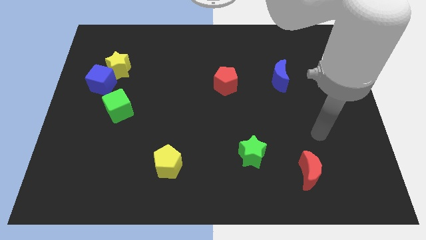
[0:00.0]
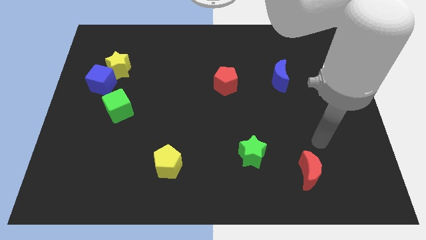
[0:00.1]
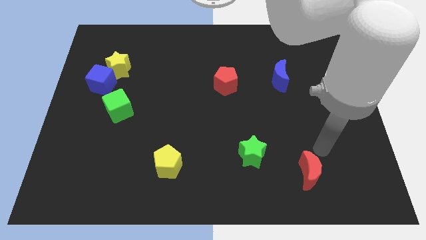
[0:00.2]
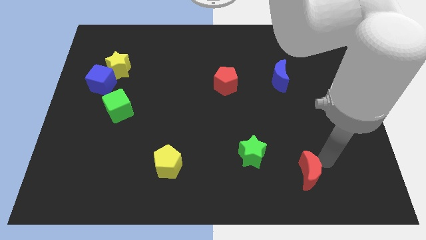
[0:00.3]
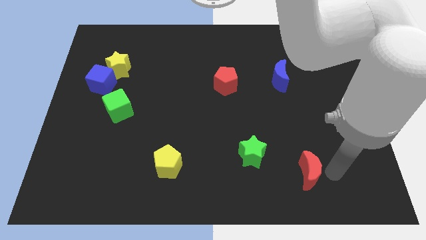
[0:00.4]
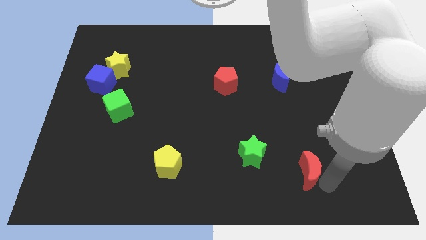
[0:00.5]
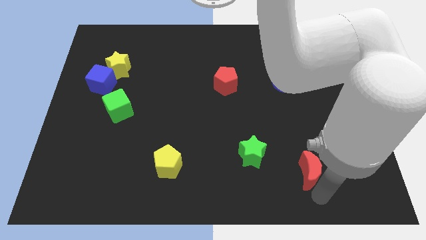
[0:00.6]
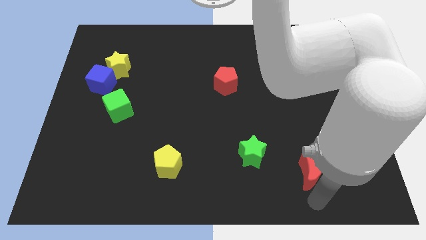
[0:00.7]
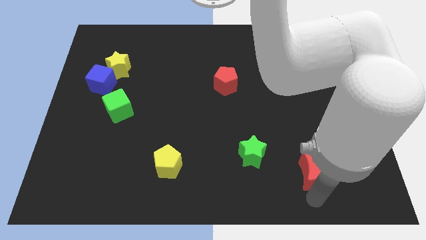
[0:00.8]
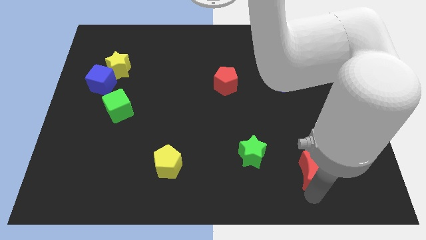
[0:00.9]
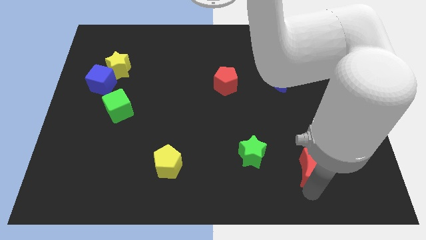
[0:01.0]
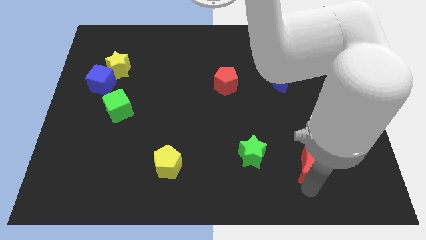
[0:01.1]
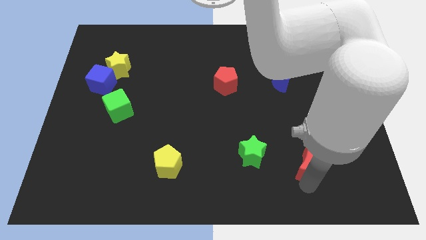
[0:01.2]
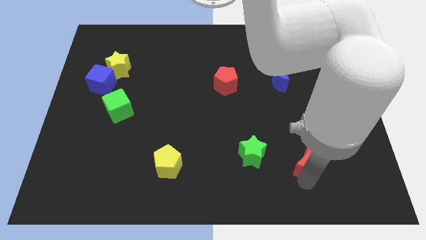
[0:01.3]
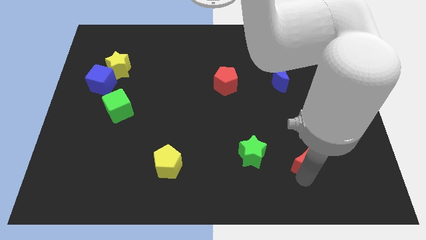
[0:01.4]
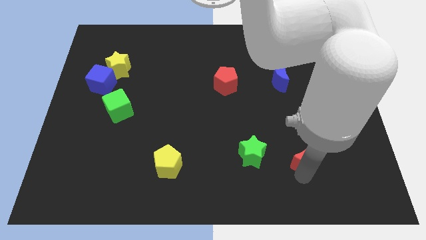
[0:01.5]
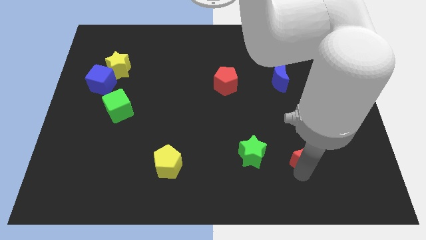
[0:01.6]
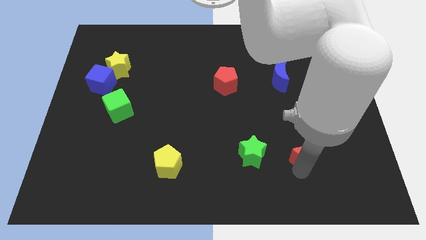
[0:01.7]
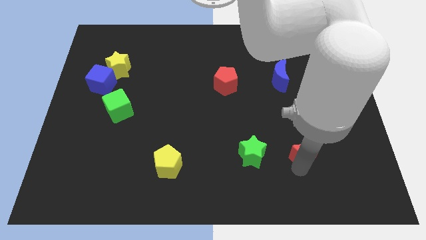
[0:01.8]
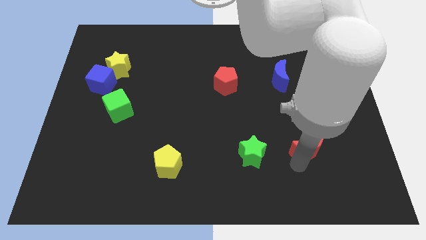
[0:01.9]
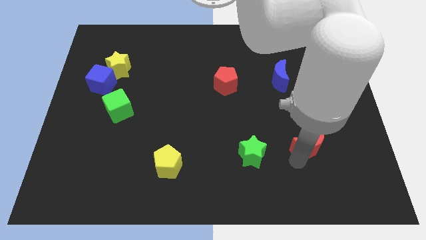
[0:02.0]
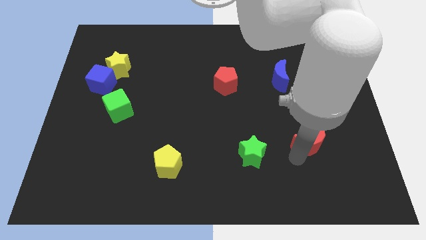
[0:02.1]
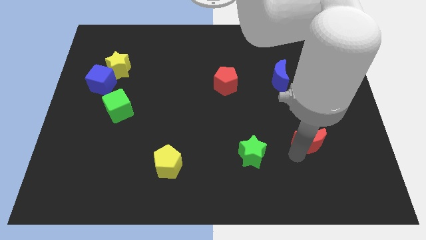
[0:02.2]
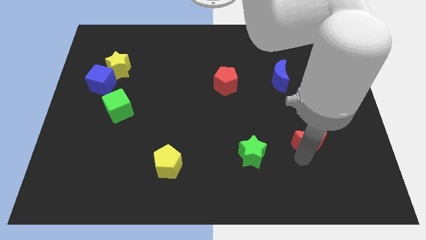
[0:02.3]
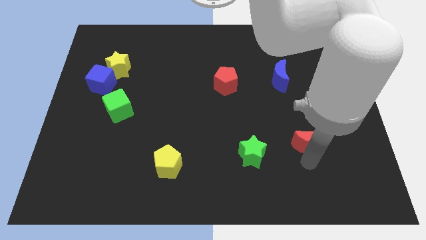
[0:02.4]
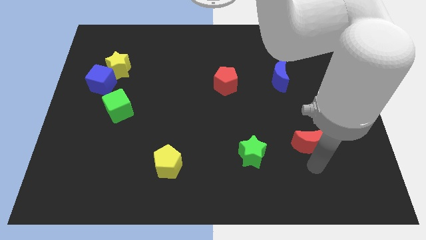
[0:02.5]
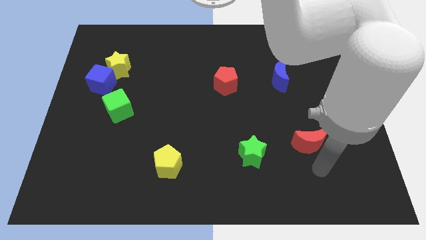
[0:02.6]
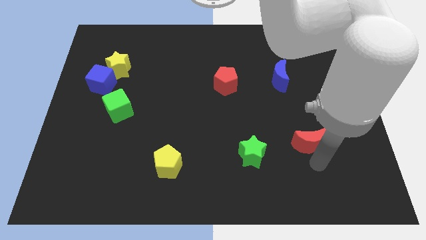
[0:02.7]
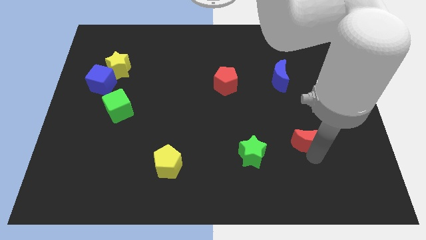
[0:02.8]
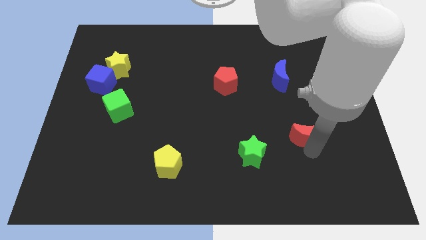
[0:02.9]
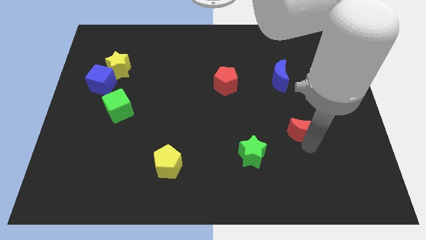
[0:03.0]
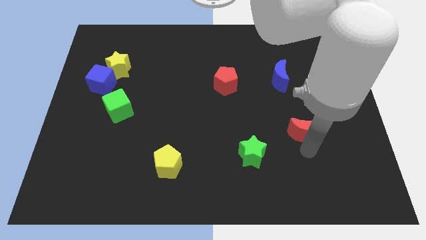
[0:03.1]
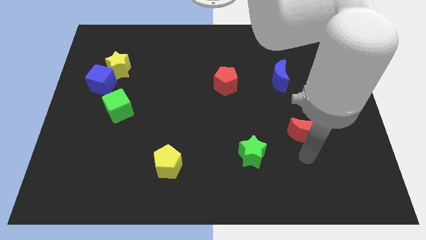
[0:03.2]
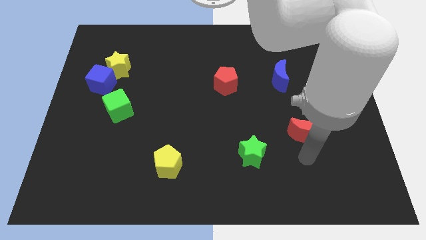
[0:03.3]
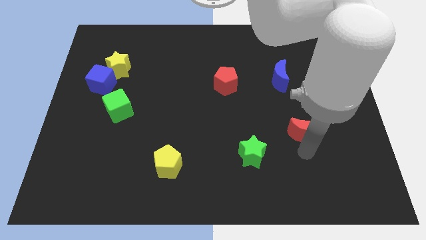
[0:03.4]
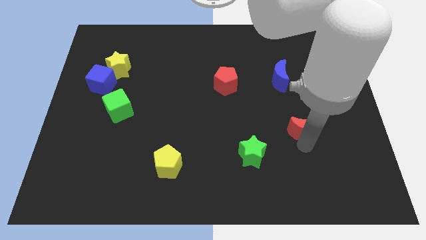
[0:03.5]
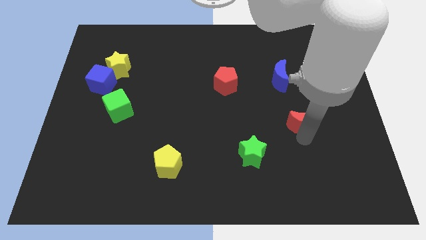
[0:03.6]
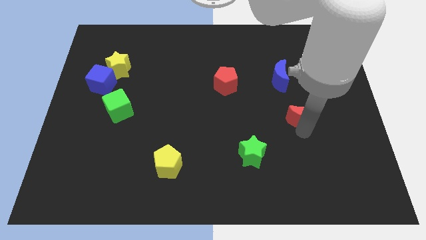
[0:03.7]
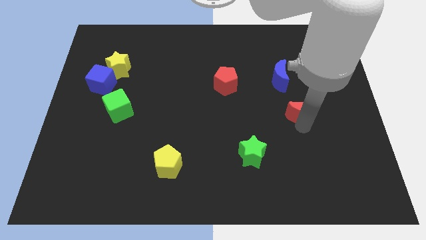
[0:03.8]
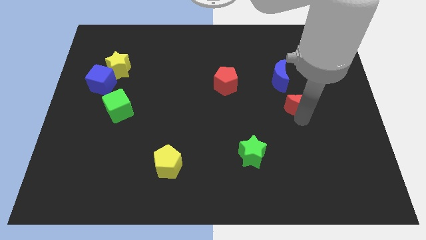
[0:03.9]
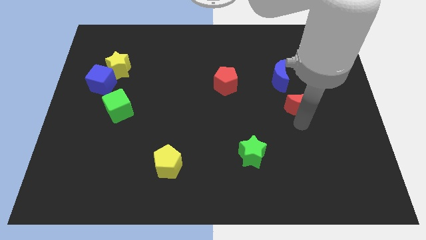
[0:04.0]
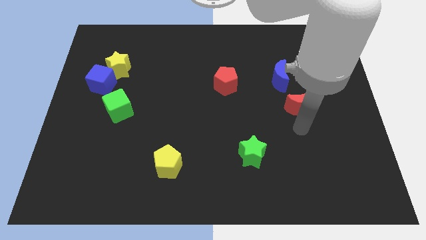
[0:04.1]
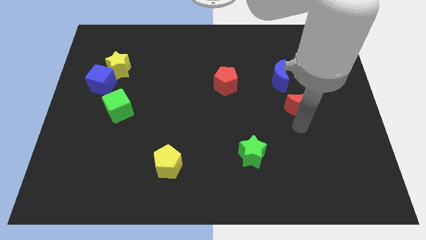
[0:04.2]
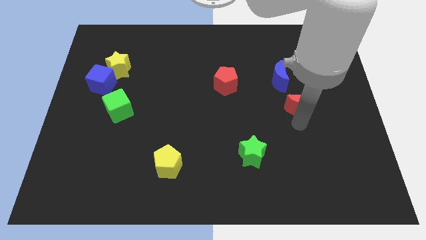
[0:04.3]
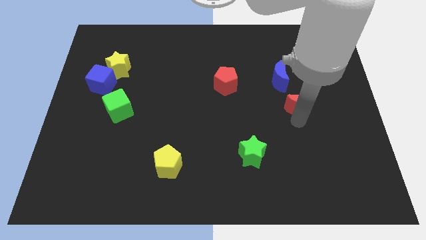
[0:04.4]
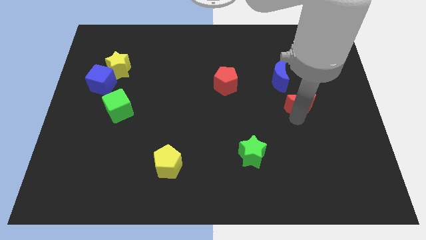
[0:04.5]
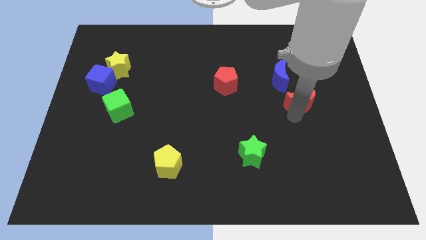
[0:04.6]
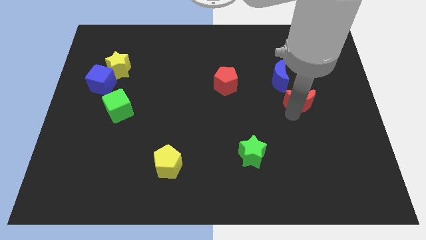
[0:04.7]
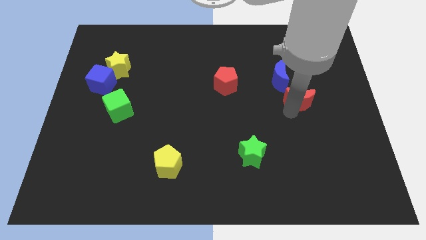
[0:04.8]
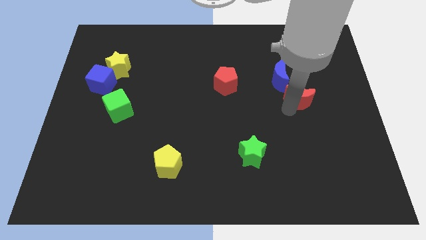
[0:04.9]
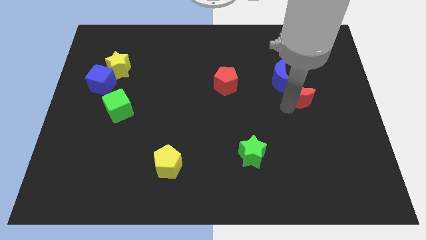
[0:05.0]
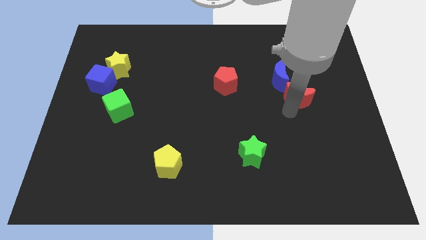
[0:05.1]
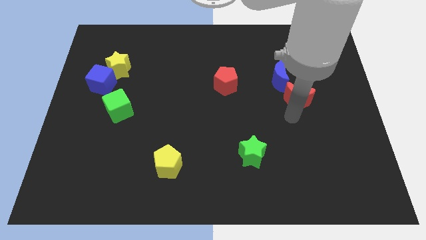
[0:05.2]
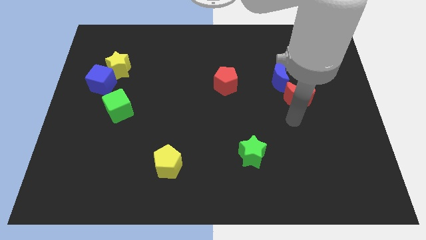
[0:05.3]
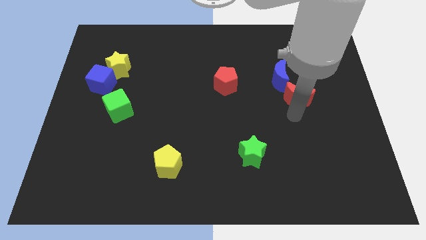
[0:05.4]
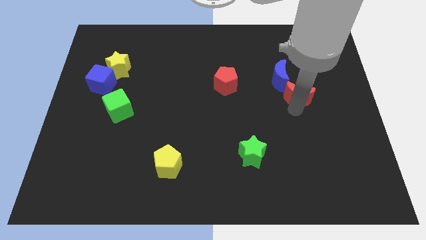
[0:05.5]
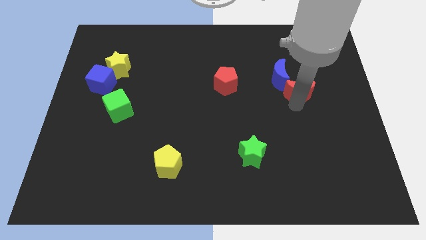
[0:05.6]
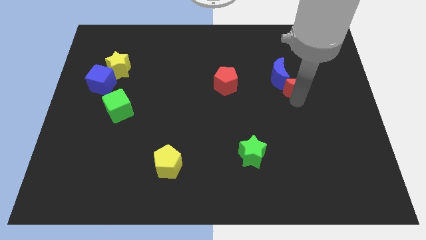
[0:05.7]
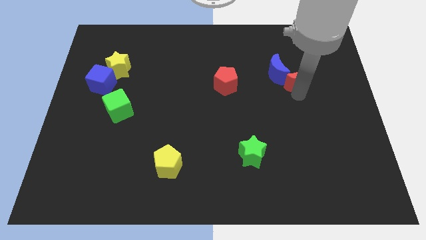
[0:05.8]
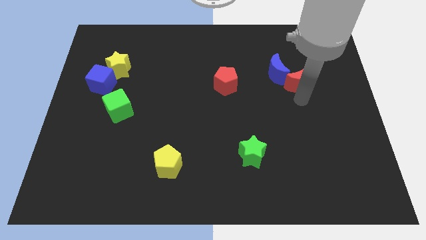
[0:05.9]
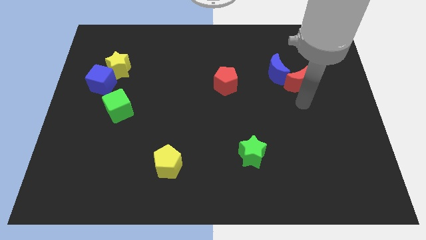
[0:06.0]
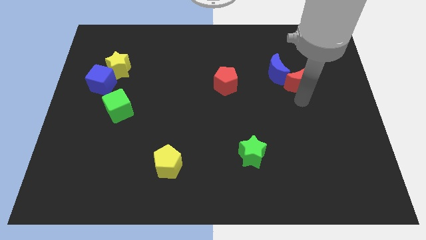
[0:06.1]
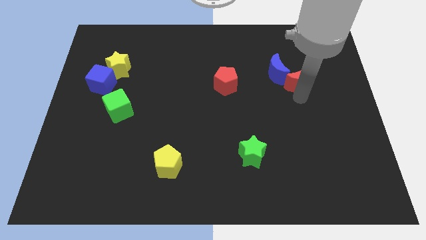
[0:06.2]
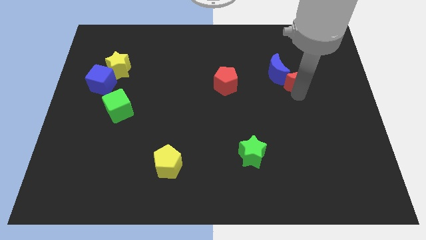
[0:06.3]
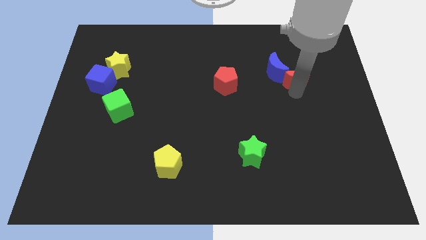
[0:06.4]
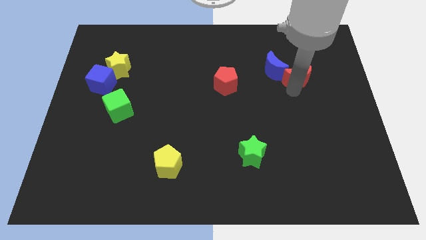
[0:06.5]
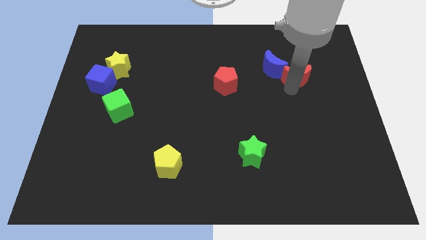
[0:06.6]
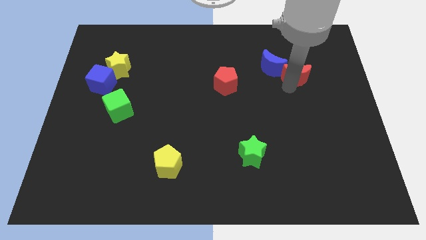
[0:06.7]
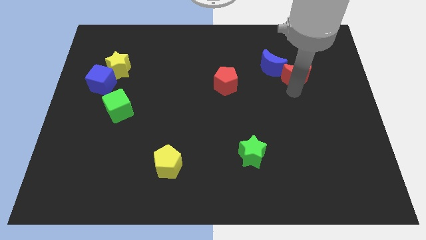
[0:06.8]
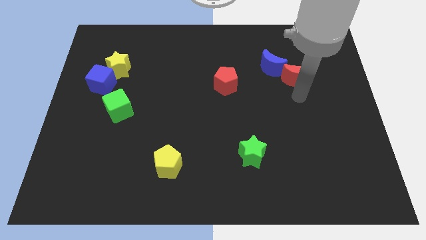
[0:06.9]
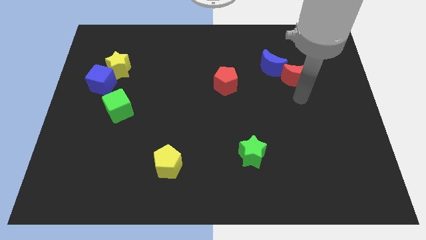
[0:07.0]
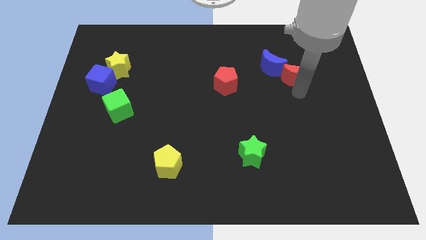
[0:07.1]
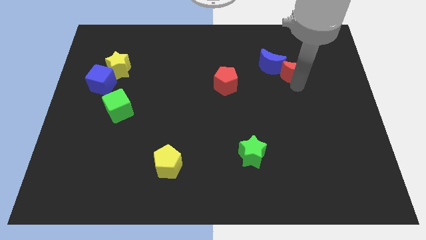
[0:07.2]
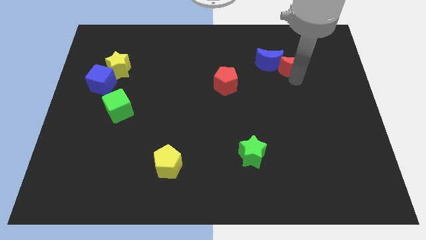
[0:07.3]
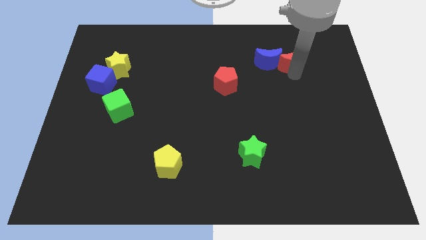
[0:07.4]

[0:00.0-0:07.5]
put the red moon to the top right of the blue moon

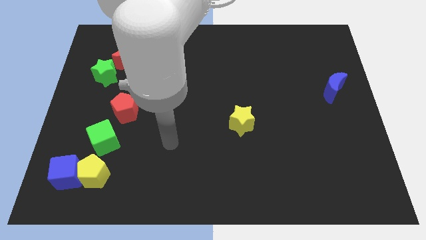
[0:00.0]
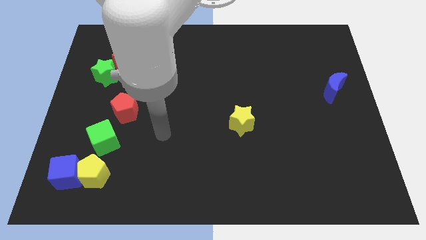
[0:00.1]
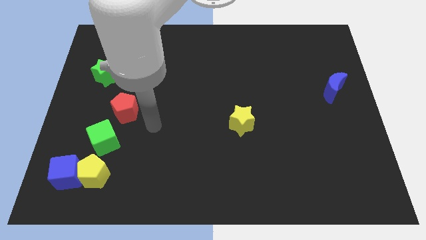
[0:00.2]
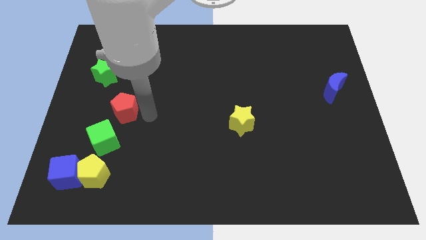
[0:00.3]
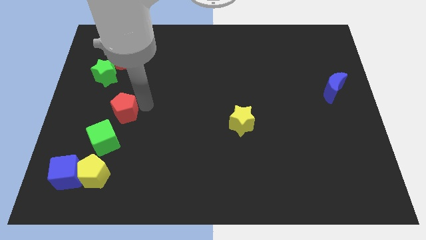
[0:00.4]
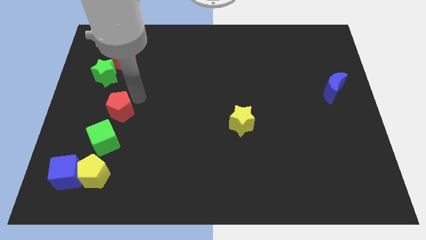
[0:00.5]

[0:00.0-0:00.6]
push the red moon to the top of the red pentagon

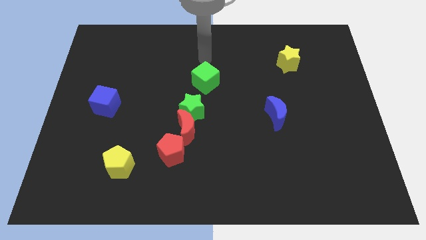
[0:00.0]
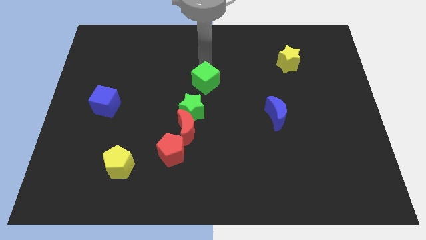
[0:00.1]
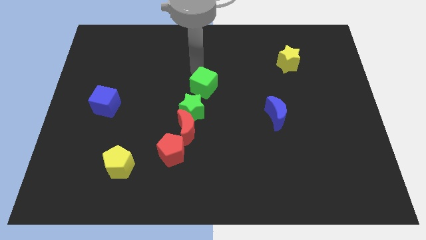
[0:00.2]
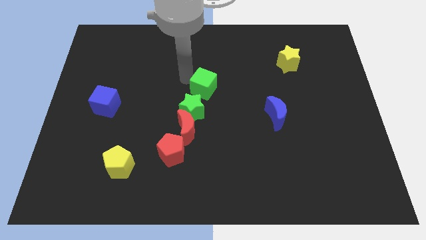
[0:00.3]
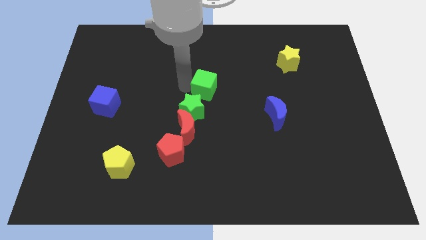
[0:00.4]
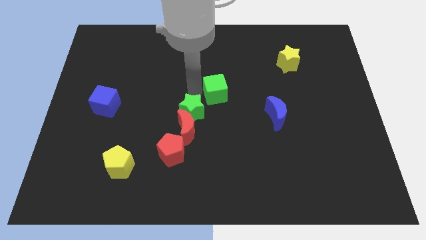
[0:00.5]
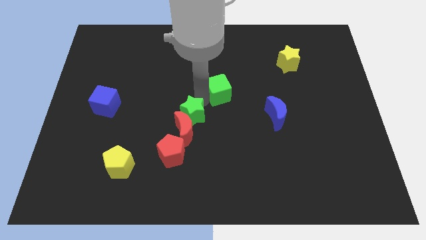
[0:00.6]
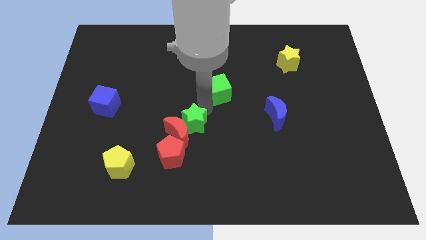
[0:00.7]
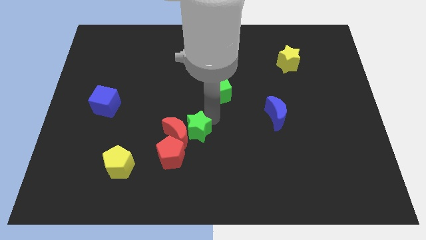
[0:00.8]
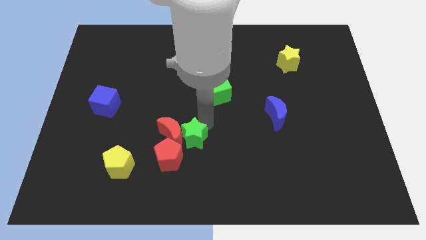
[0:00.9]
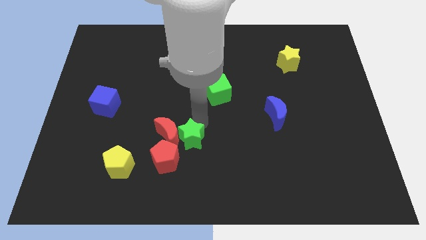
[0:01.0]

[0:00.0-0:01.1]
push the red moon diagonally up and to the right of the yellow pentagon
